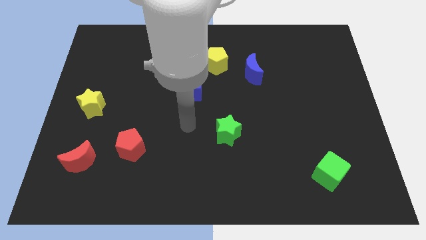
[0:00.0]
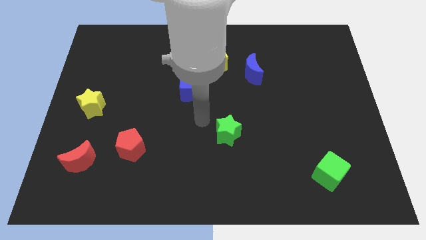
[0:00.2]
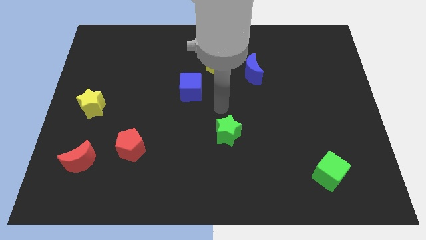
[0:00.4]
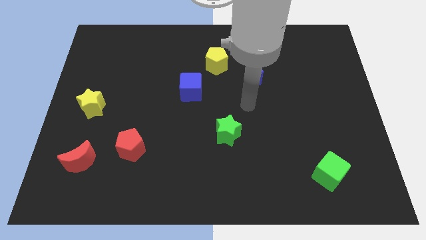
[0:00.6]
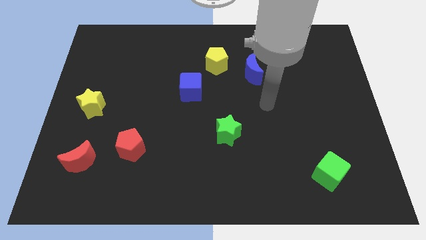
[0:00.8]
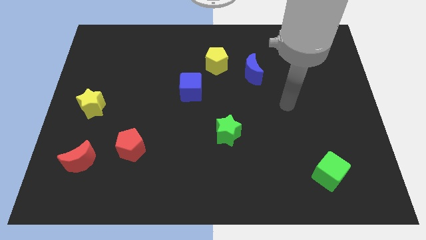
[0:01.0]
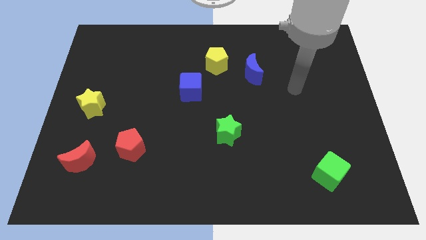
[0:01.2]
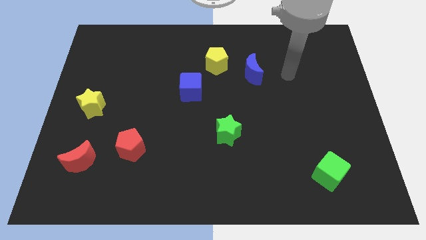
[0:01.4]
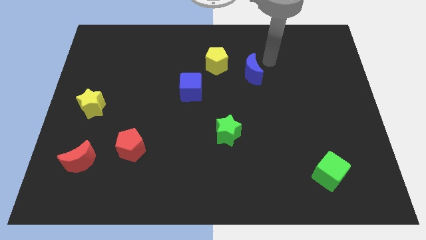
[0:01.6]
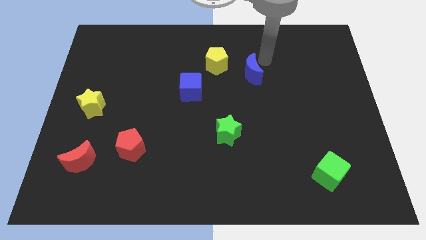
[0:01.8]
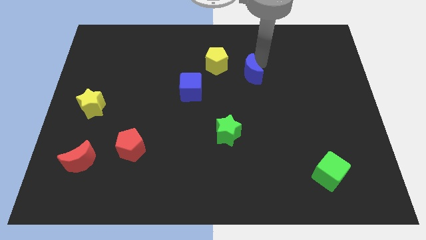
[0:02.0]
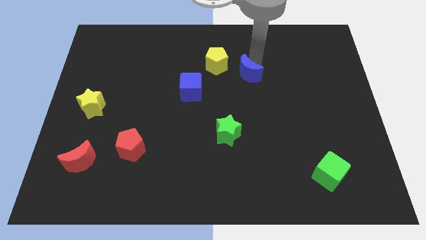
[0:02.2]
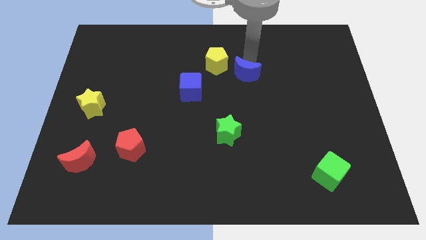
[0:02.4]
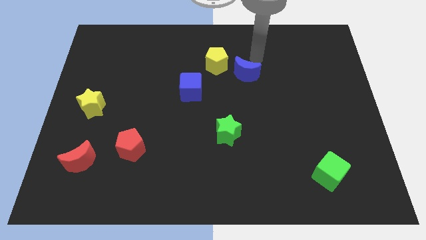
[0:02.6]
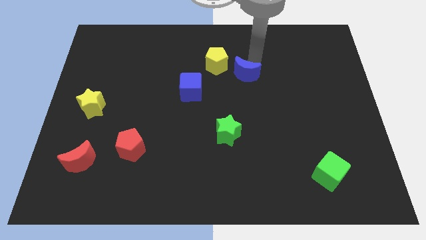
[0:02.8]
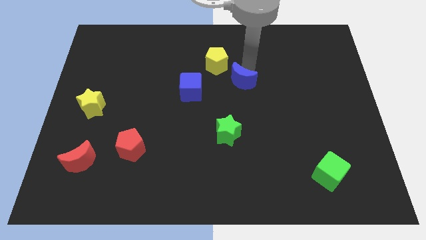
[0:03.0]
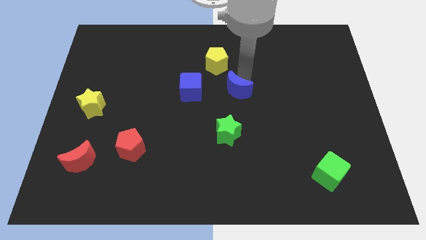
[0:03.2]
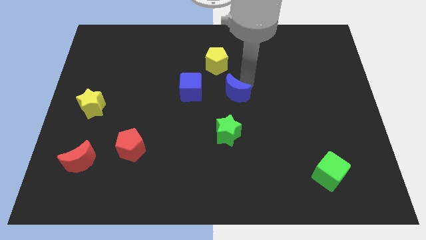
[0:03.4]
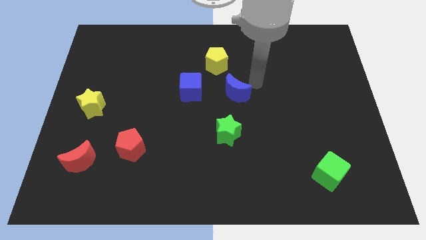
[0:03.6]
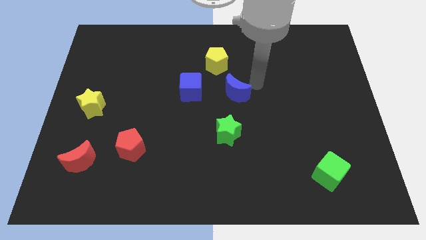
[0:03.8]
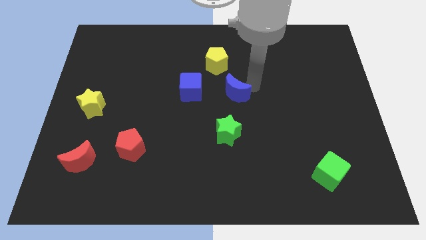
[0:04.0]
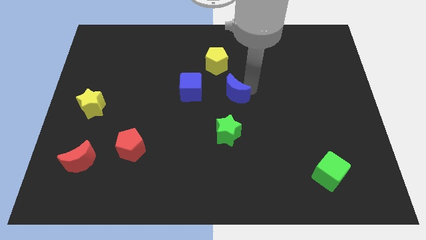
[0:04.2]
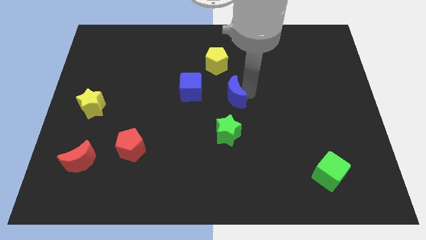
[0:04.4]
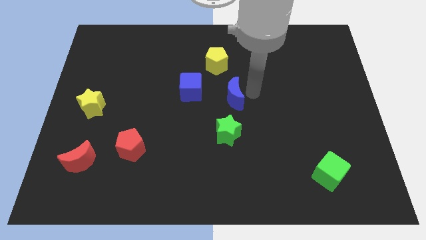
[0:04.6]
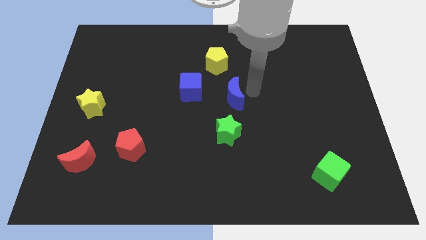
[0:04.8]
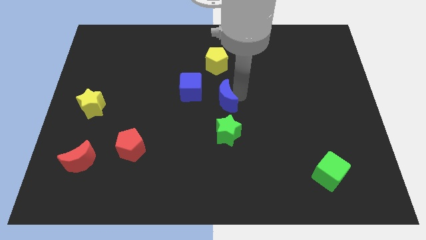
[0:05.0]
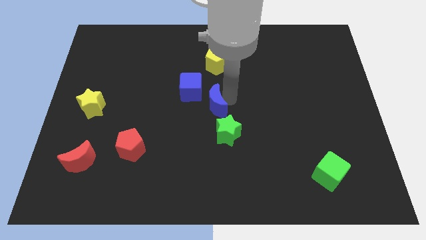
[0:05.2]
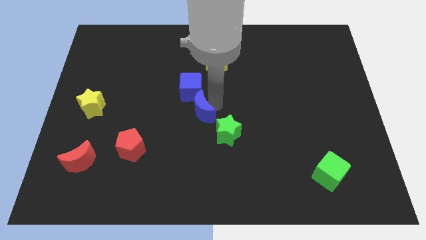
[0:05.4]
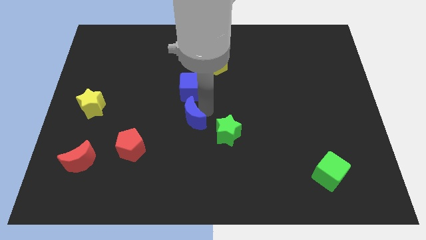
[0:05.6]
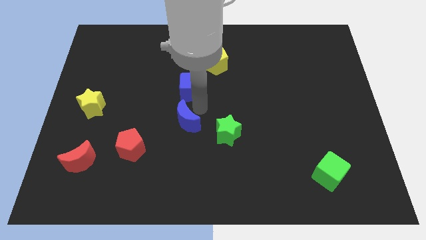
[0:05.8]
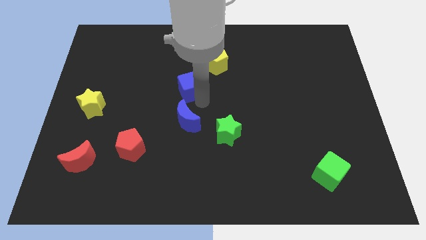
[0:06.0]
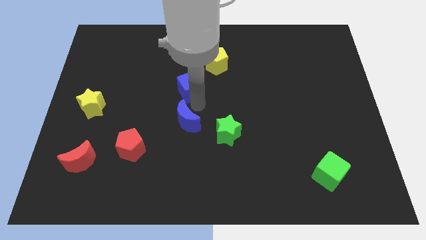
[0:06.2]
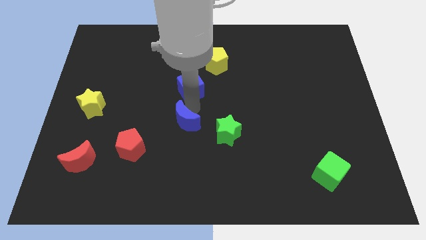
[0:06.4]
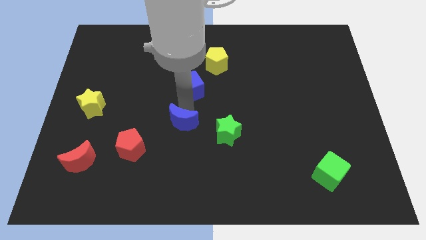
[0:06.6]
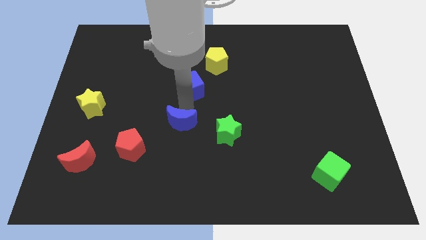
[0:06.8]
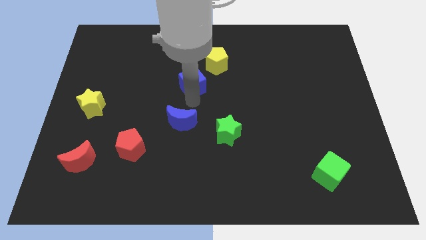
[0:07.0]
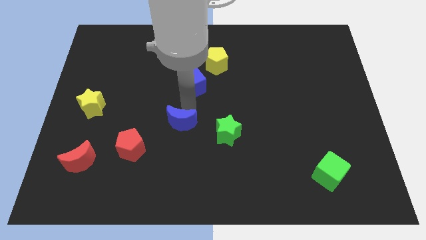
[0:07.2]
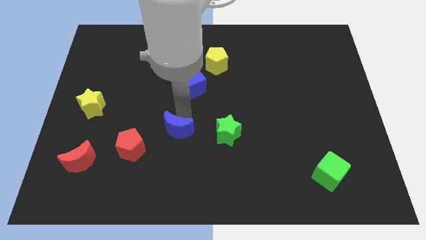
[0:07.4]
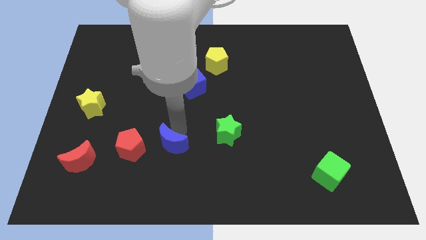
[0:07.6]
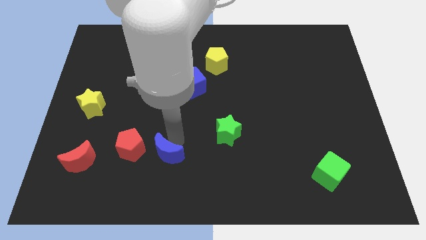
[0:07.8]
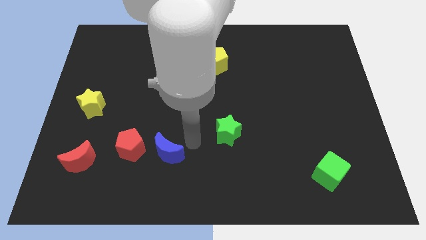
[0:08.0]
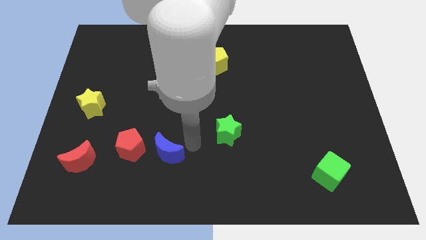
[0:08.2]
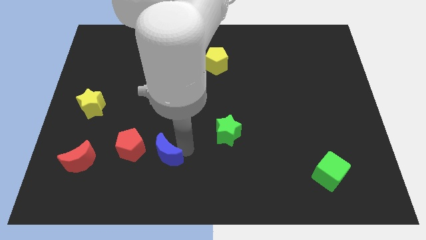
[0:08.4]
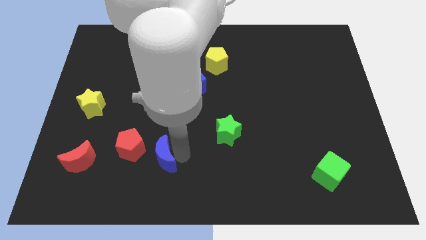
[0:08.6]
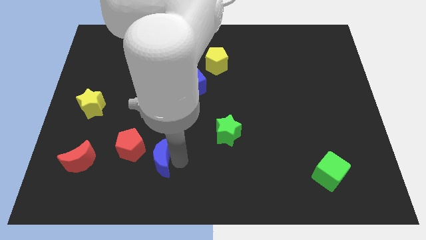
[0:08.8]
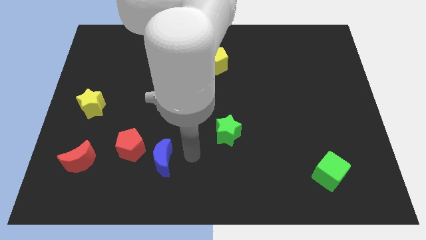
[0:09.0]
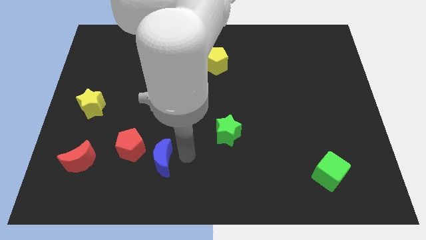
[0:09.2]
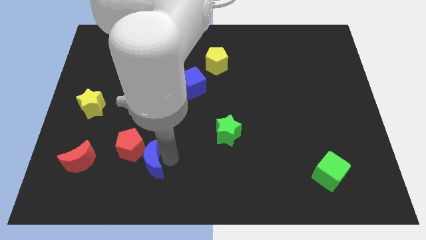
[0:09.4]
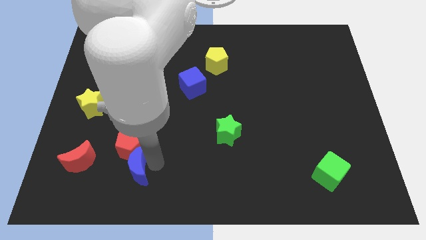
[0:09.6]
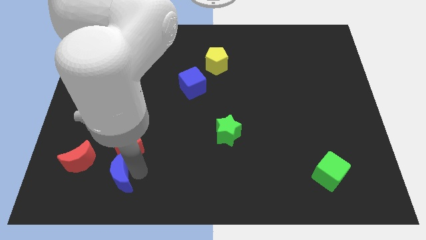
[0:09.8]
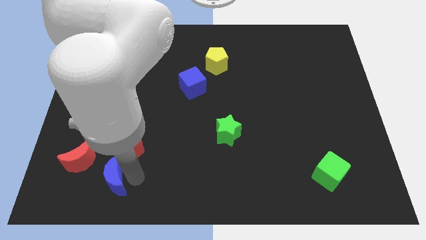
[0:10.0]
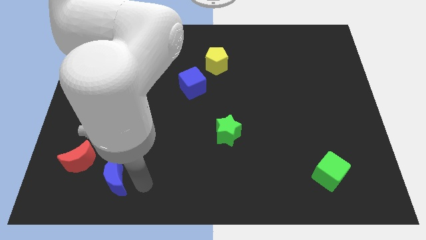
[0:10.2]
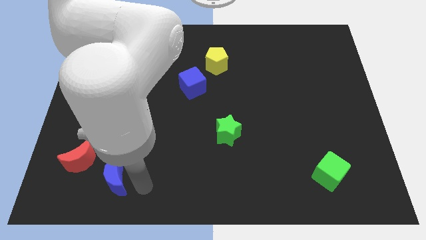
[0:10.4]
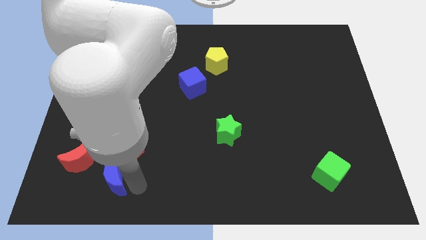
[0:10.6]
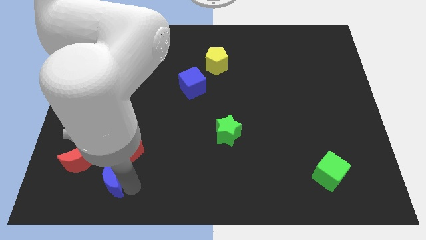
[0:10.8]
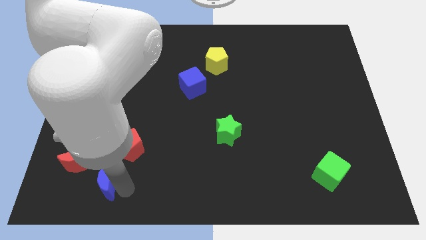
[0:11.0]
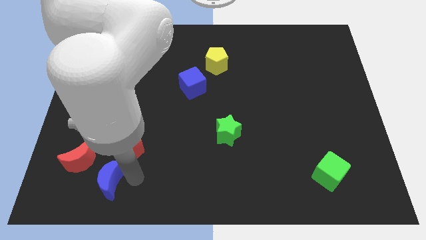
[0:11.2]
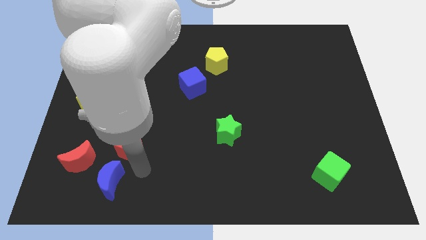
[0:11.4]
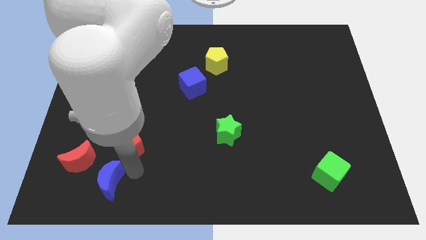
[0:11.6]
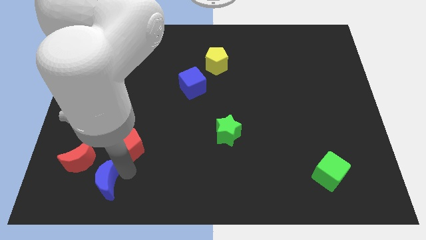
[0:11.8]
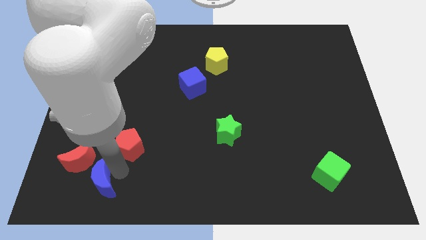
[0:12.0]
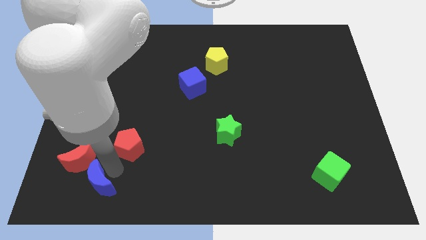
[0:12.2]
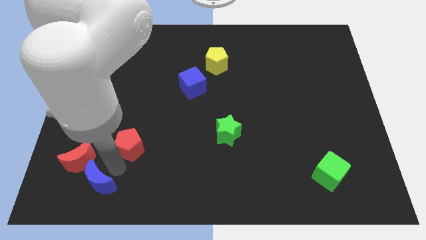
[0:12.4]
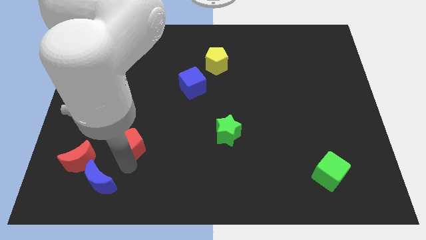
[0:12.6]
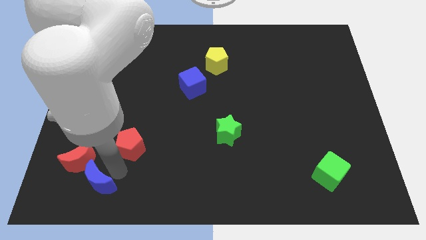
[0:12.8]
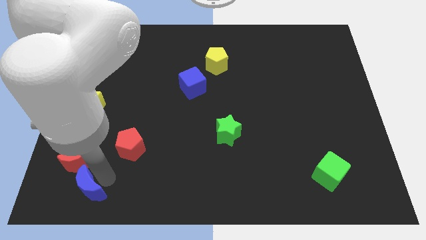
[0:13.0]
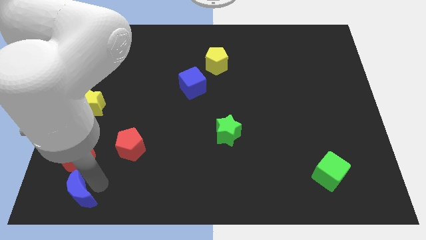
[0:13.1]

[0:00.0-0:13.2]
put the blue moon to the lower left corner
